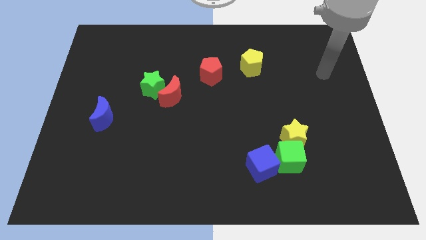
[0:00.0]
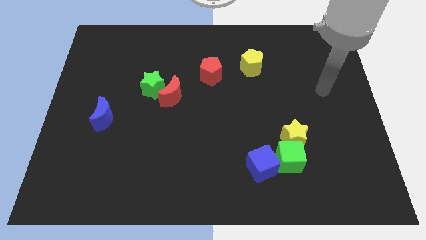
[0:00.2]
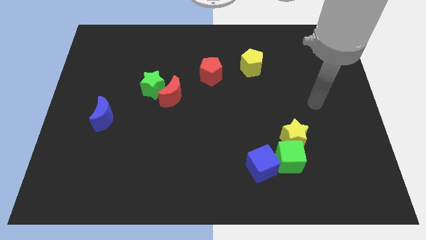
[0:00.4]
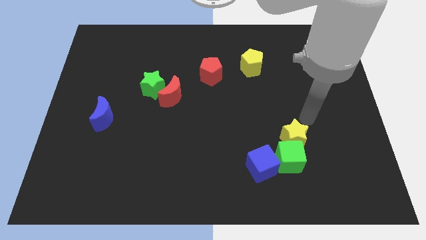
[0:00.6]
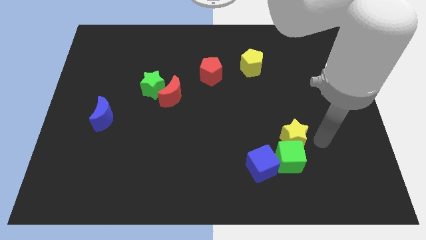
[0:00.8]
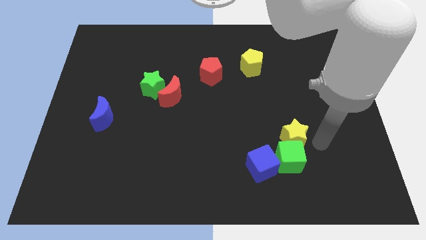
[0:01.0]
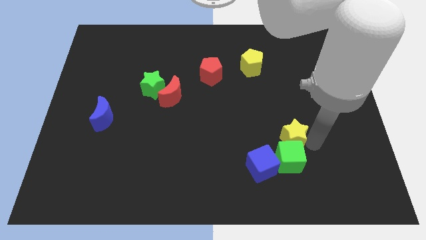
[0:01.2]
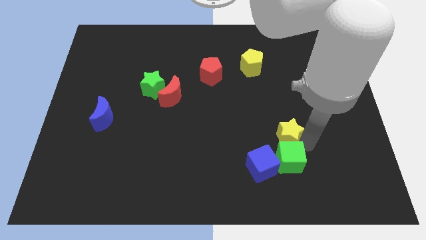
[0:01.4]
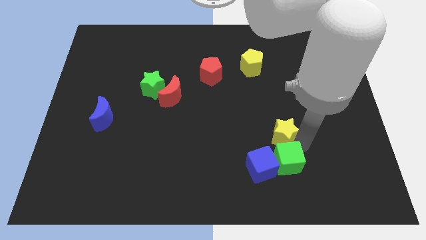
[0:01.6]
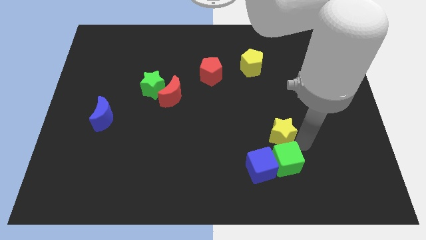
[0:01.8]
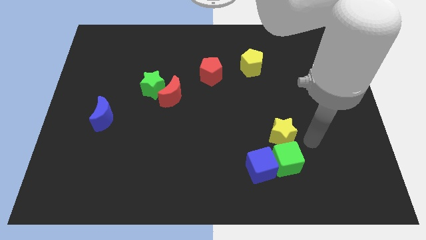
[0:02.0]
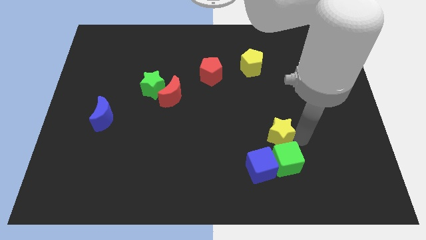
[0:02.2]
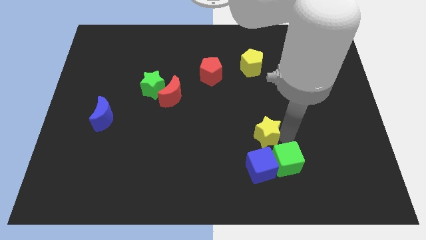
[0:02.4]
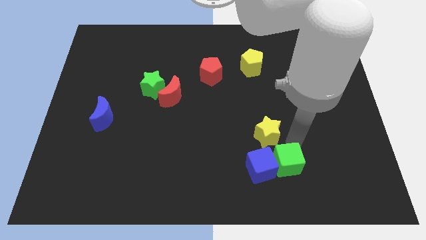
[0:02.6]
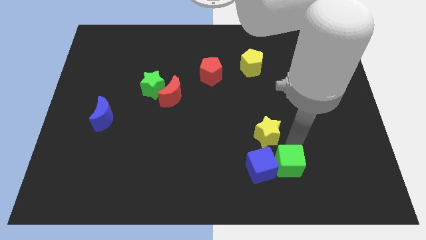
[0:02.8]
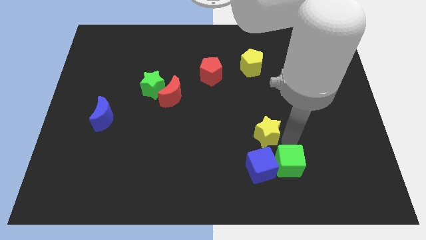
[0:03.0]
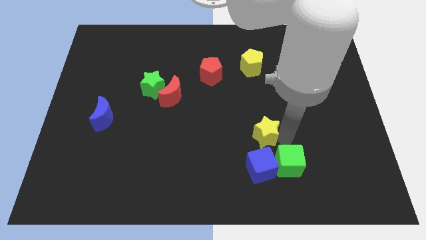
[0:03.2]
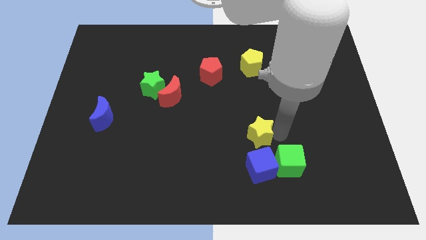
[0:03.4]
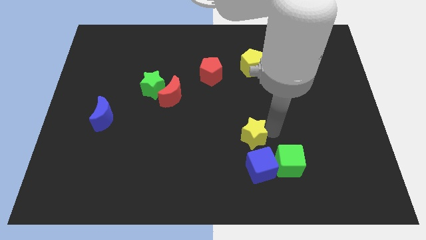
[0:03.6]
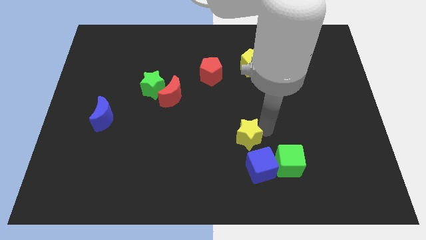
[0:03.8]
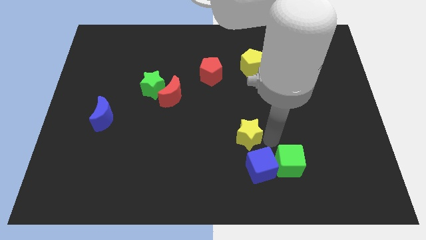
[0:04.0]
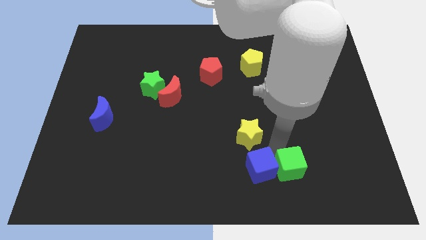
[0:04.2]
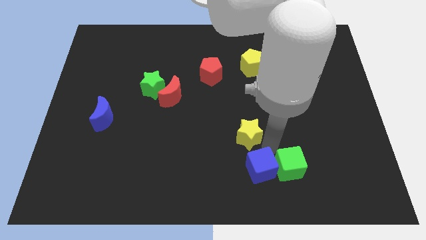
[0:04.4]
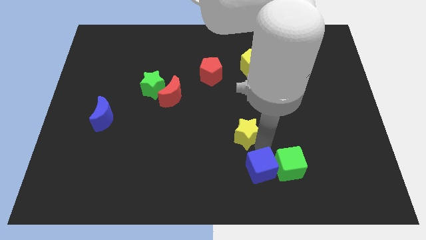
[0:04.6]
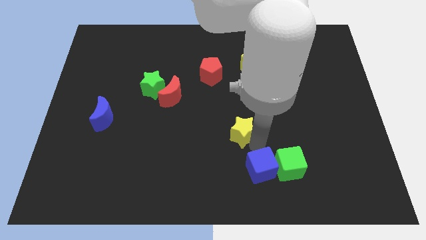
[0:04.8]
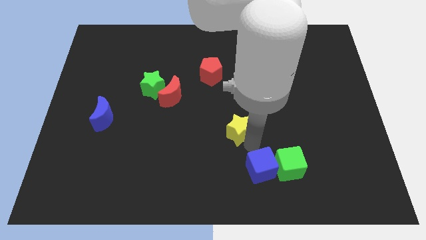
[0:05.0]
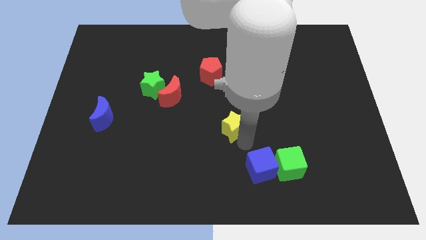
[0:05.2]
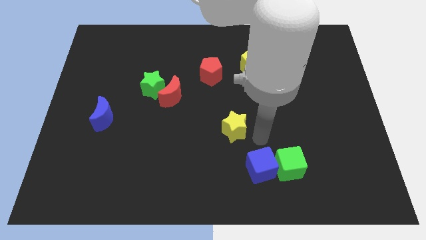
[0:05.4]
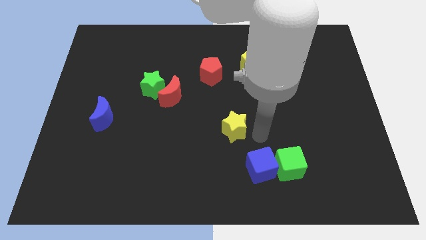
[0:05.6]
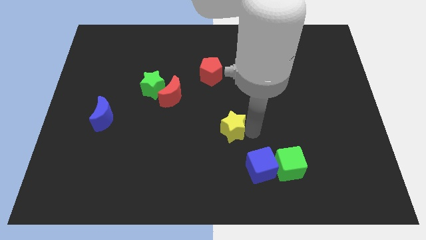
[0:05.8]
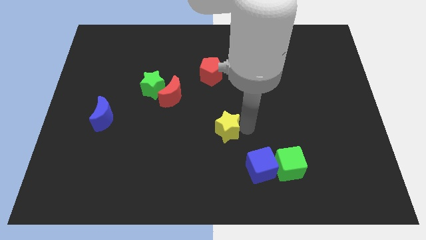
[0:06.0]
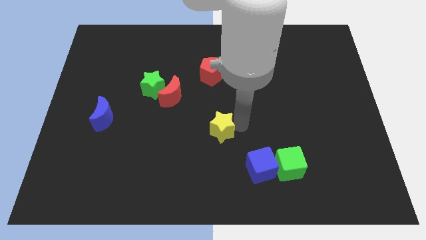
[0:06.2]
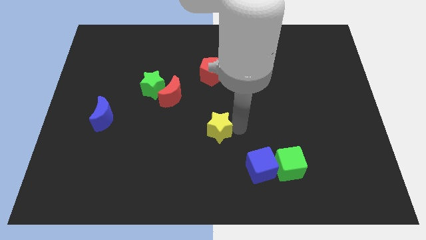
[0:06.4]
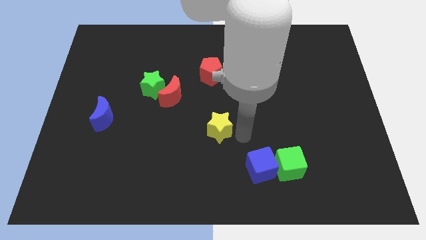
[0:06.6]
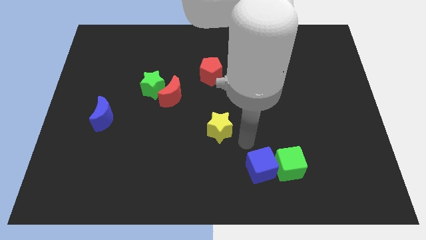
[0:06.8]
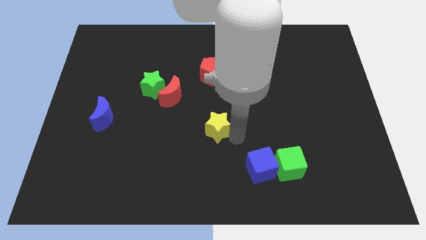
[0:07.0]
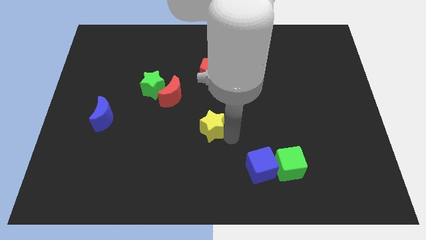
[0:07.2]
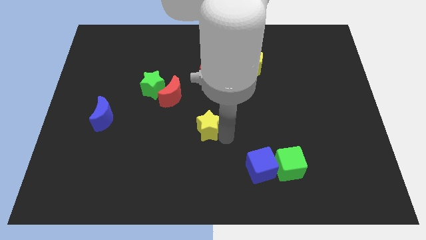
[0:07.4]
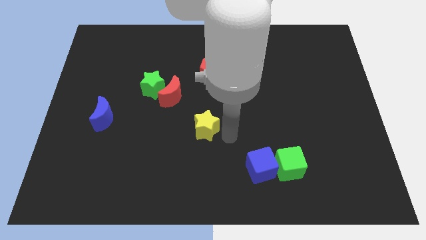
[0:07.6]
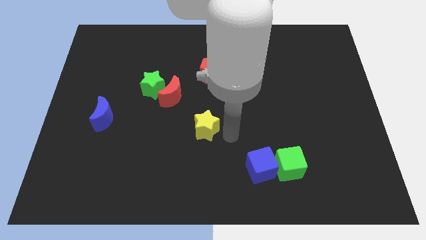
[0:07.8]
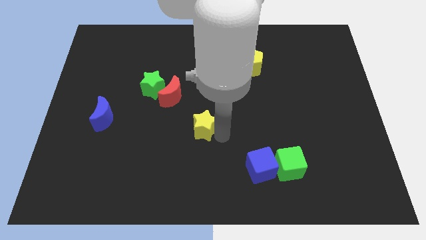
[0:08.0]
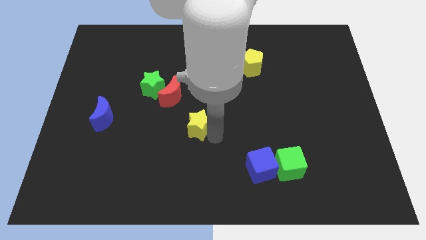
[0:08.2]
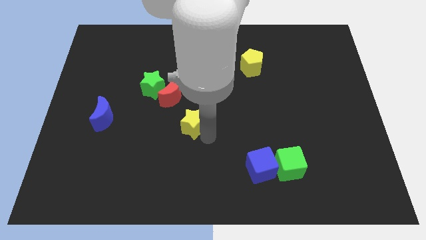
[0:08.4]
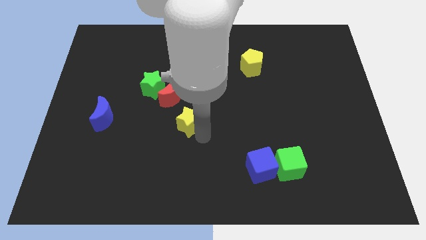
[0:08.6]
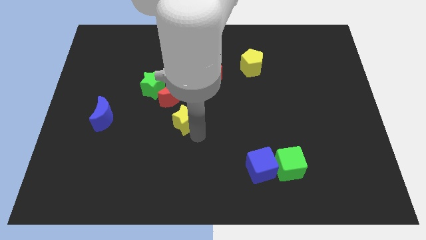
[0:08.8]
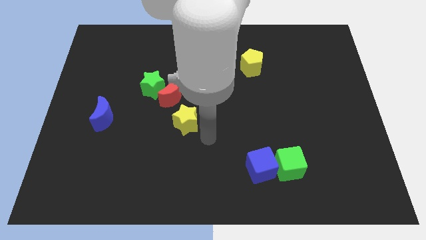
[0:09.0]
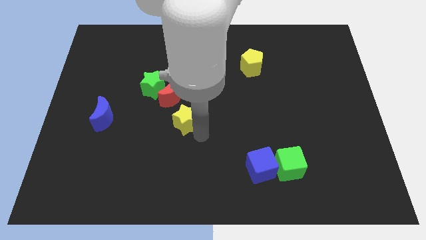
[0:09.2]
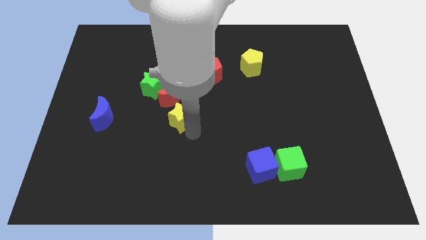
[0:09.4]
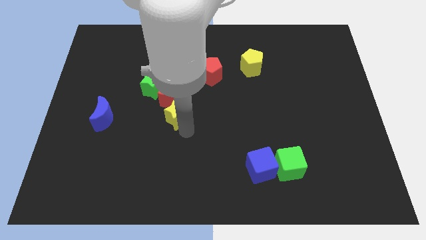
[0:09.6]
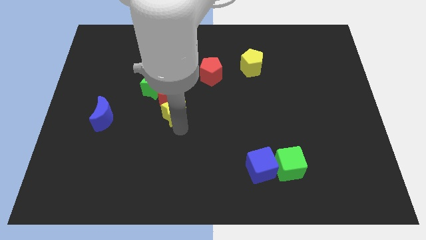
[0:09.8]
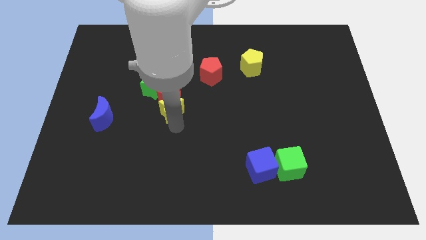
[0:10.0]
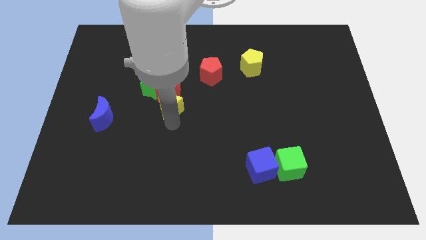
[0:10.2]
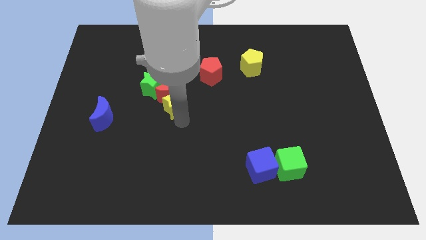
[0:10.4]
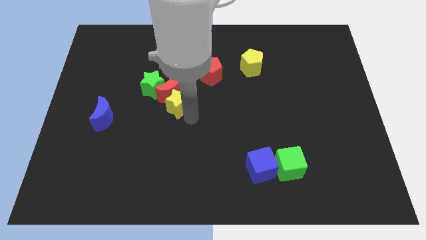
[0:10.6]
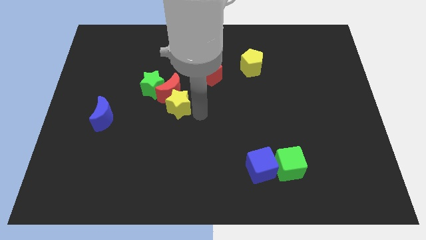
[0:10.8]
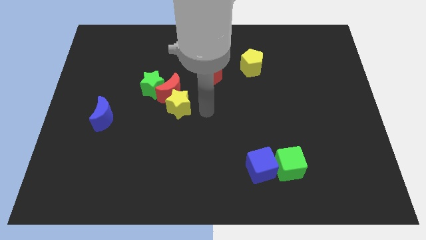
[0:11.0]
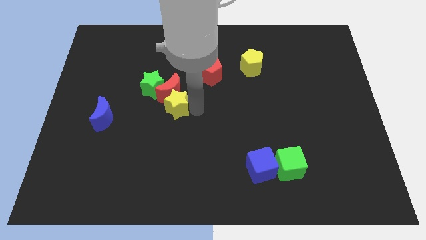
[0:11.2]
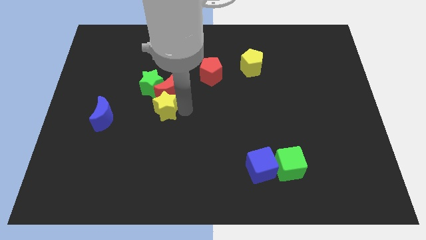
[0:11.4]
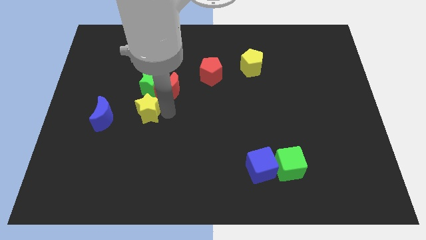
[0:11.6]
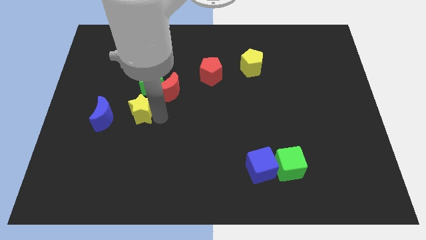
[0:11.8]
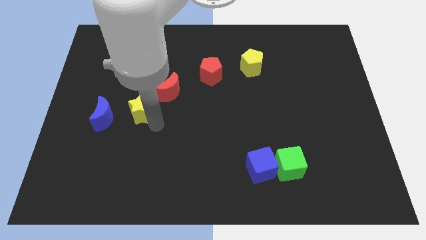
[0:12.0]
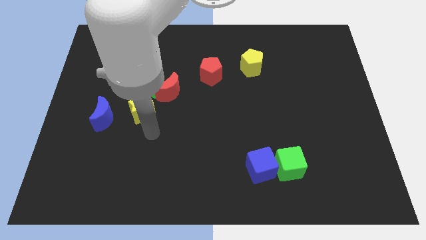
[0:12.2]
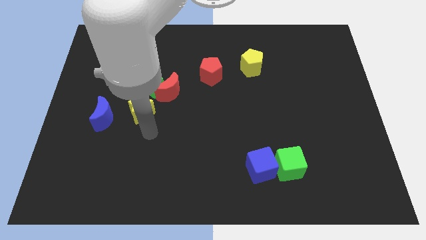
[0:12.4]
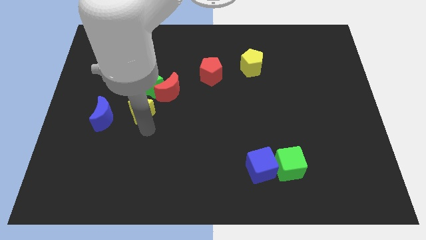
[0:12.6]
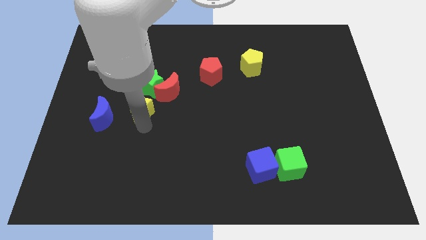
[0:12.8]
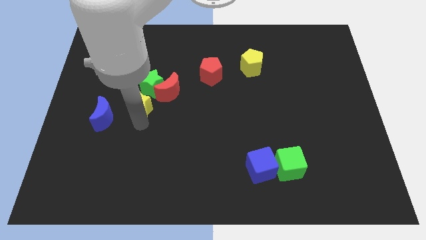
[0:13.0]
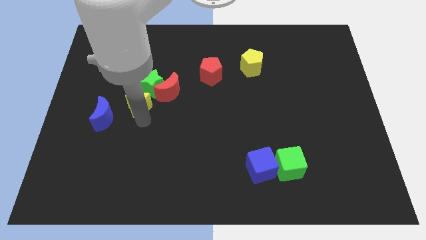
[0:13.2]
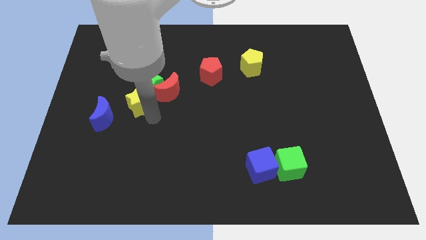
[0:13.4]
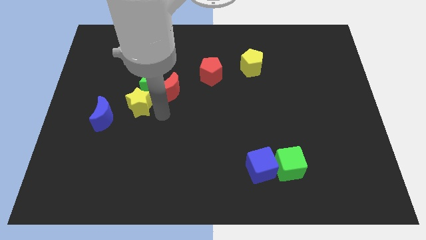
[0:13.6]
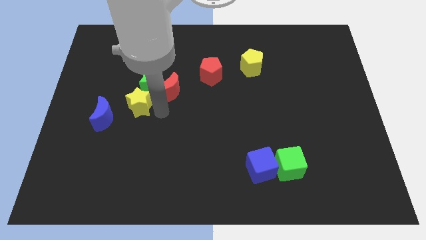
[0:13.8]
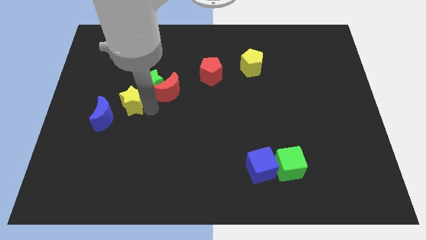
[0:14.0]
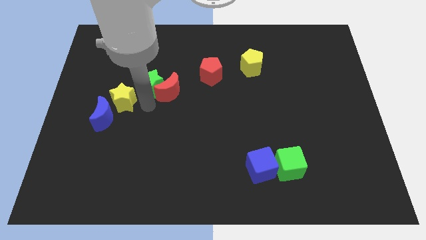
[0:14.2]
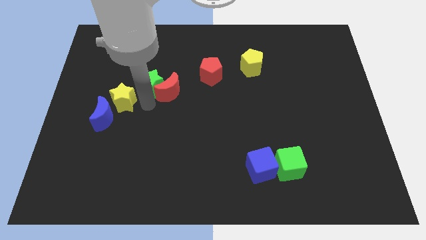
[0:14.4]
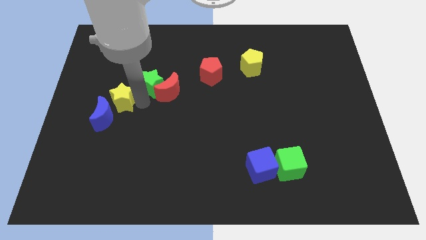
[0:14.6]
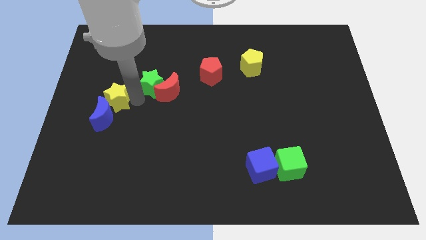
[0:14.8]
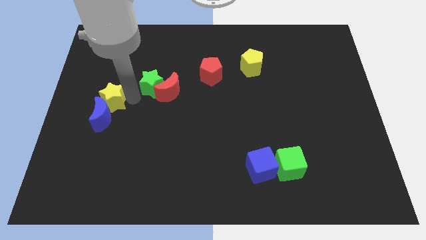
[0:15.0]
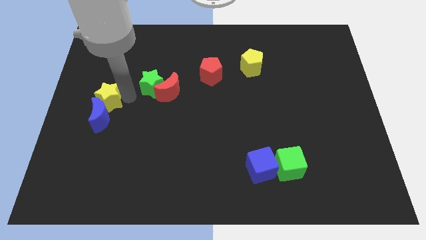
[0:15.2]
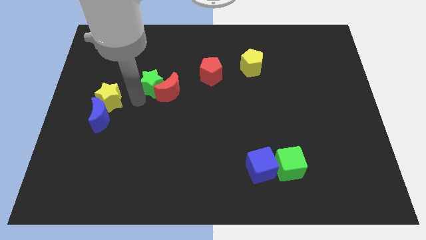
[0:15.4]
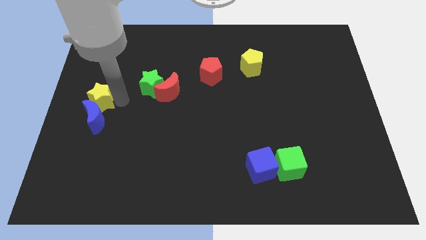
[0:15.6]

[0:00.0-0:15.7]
put the yellow star to the center left
